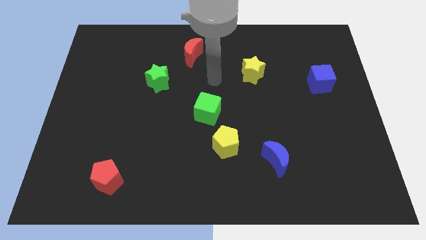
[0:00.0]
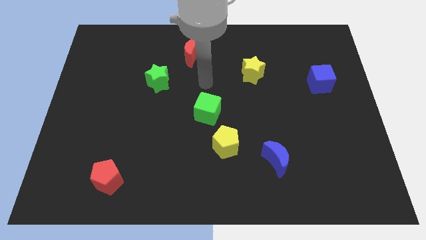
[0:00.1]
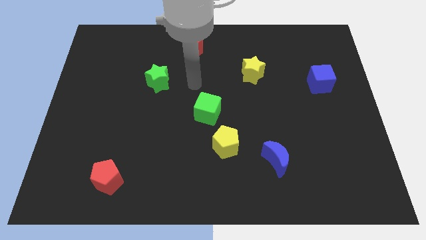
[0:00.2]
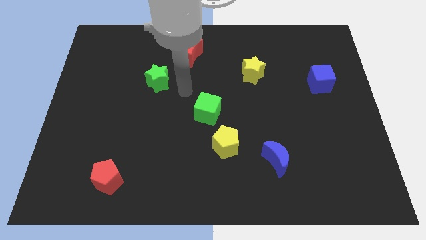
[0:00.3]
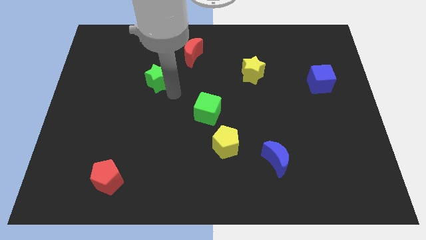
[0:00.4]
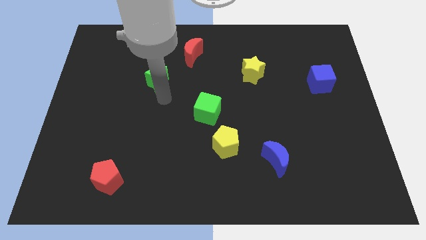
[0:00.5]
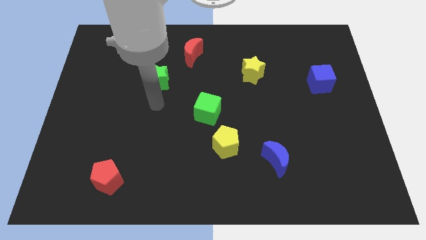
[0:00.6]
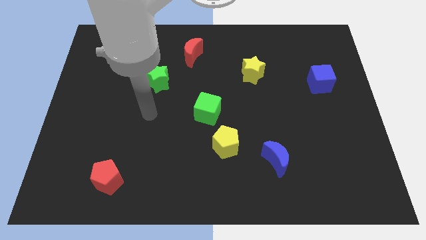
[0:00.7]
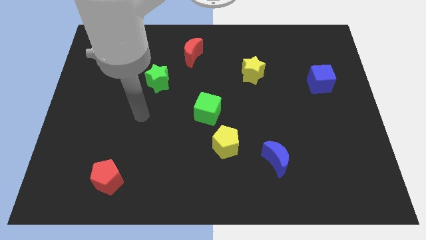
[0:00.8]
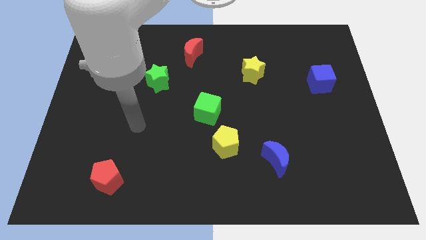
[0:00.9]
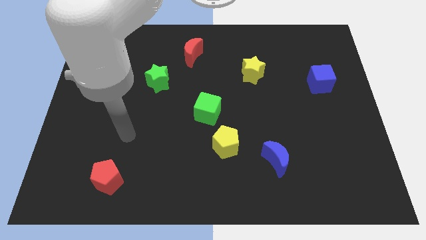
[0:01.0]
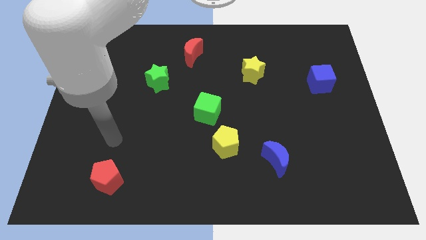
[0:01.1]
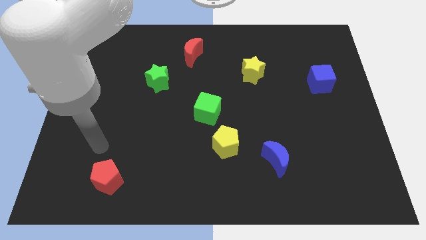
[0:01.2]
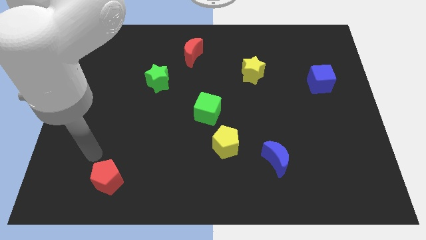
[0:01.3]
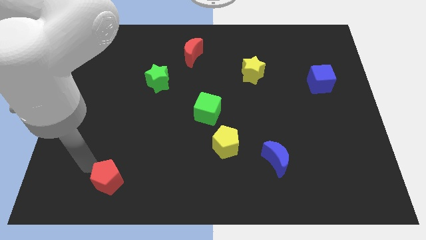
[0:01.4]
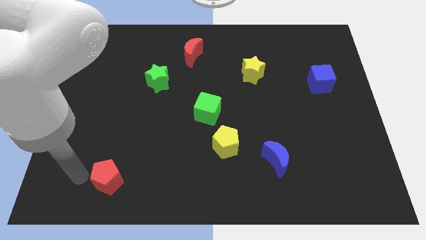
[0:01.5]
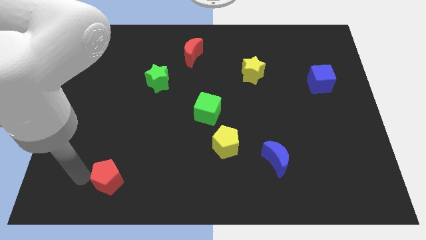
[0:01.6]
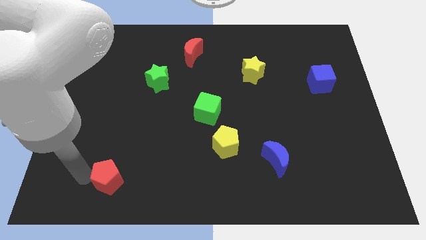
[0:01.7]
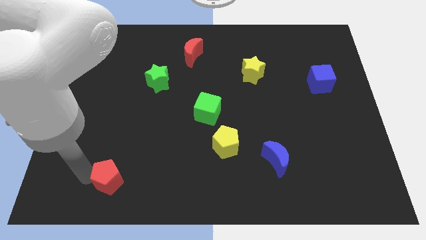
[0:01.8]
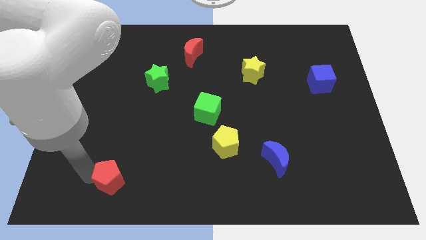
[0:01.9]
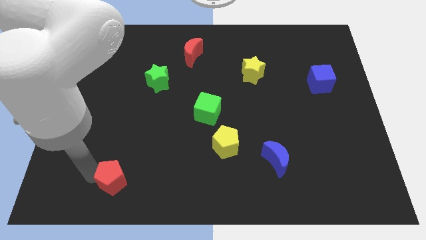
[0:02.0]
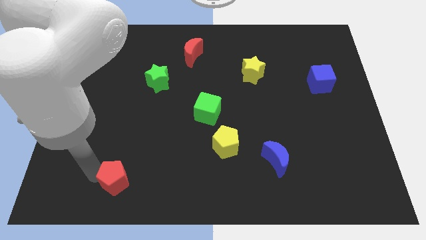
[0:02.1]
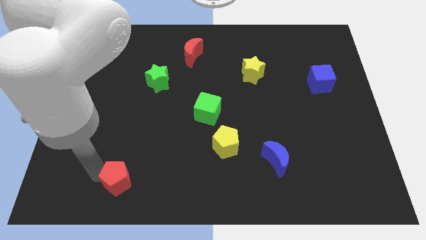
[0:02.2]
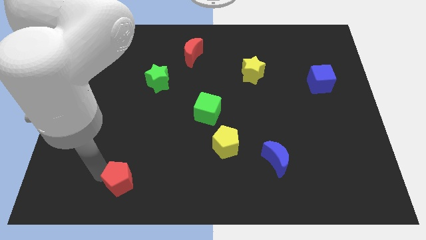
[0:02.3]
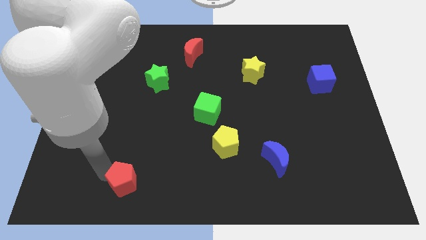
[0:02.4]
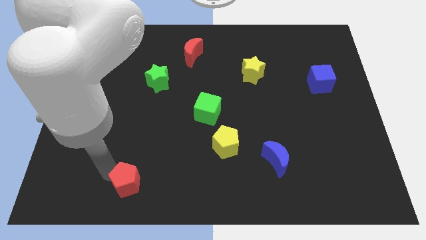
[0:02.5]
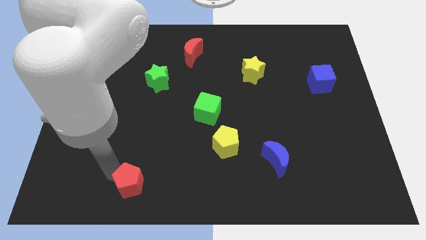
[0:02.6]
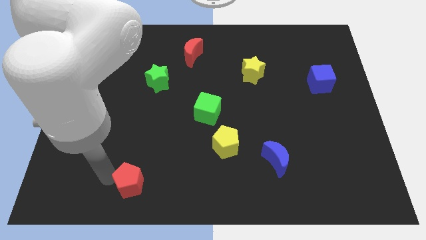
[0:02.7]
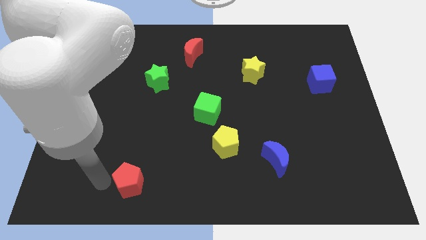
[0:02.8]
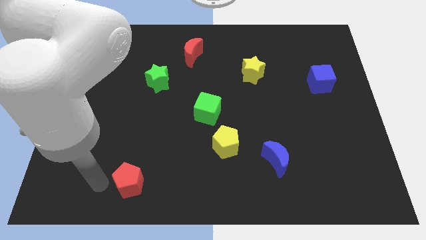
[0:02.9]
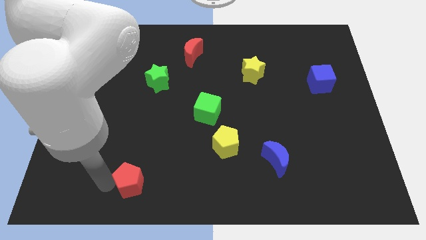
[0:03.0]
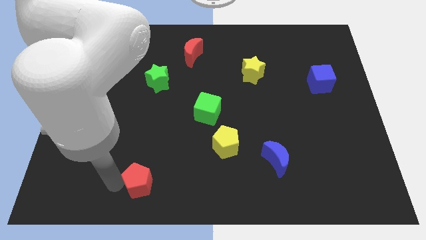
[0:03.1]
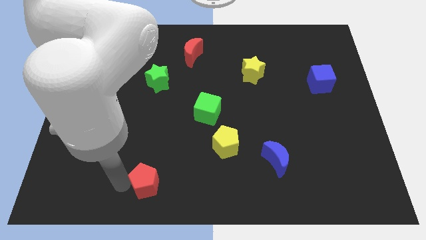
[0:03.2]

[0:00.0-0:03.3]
slide the red pentagon a bit right

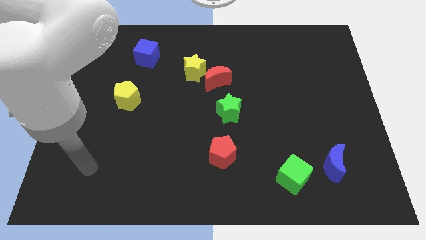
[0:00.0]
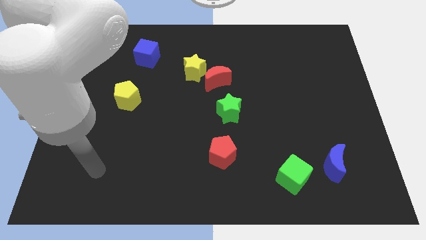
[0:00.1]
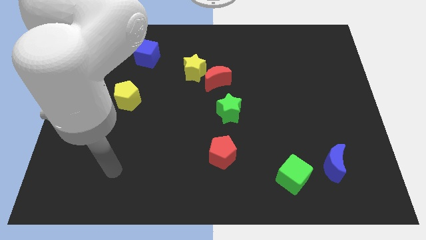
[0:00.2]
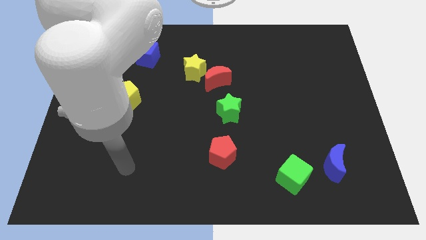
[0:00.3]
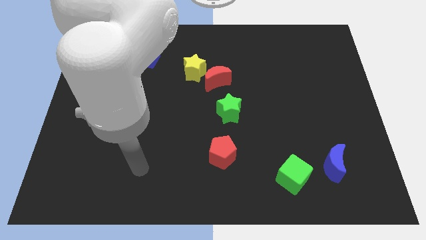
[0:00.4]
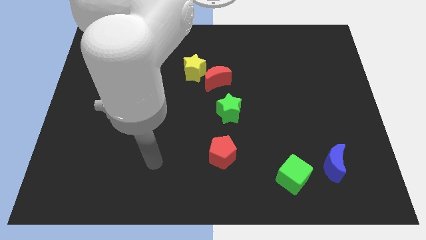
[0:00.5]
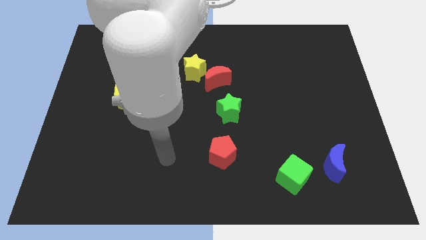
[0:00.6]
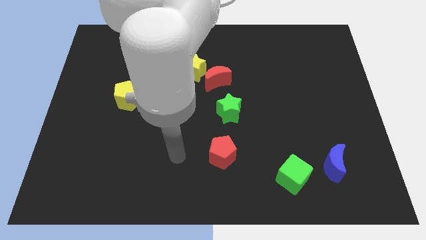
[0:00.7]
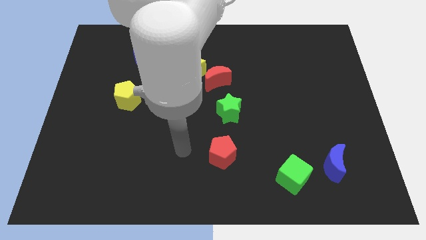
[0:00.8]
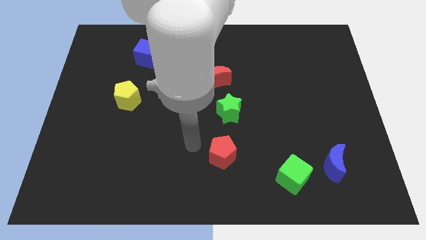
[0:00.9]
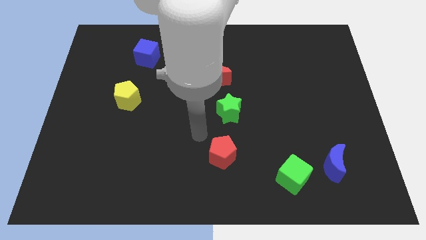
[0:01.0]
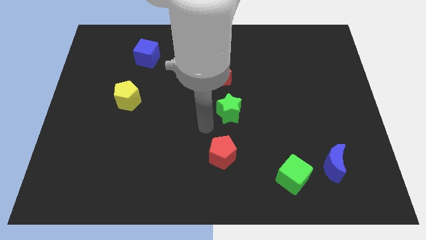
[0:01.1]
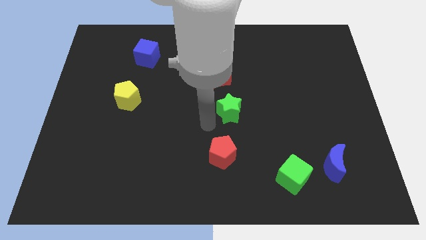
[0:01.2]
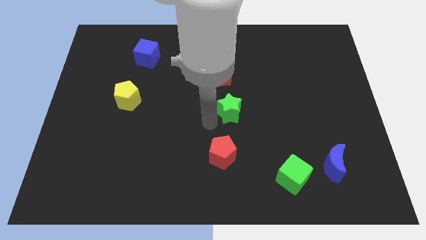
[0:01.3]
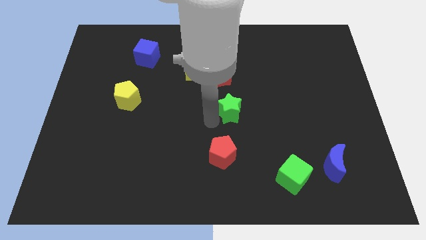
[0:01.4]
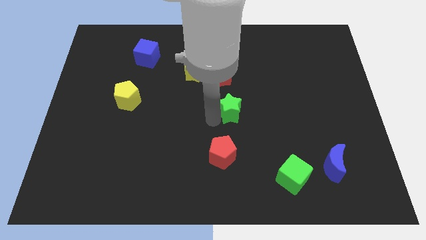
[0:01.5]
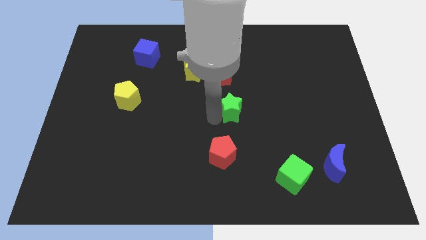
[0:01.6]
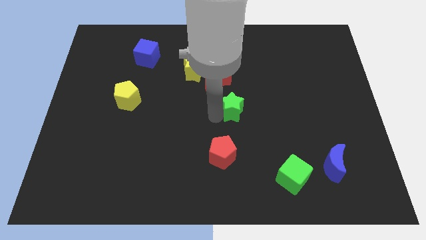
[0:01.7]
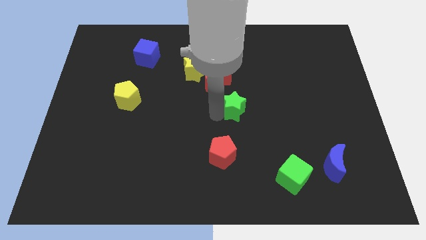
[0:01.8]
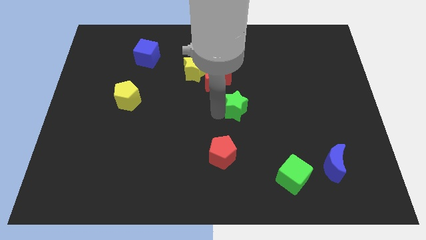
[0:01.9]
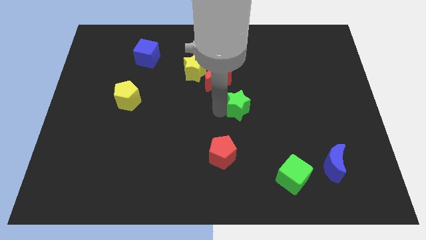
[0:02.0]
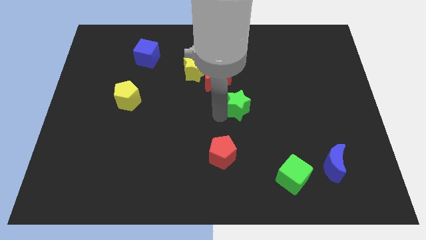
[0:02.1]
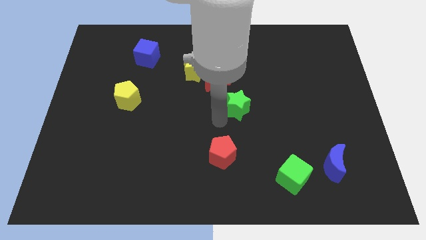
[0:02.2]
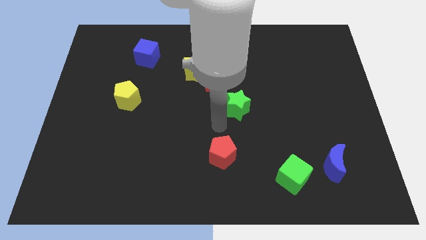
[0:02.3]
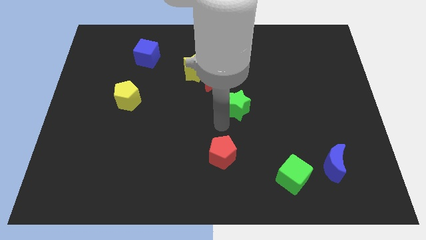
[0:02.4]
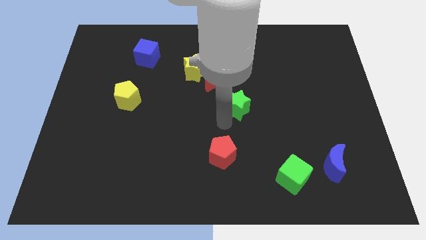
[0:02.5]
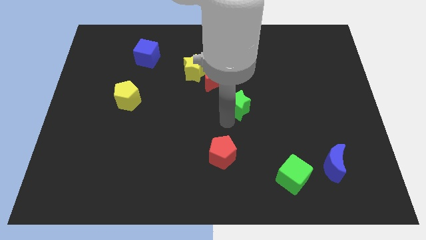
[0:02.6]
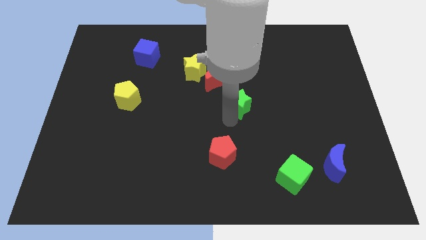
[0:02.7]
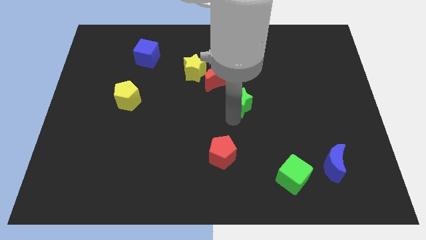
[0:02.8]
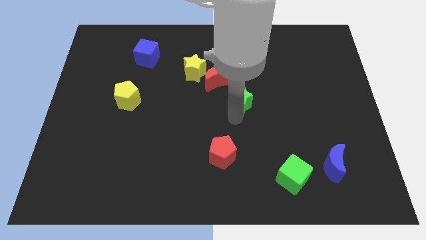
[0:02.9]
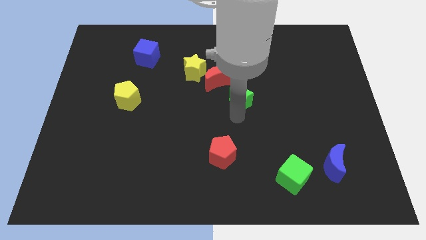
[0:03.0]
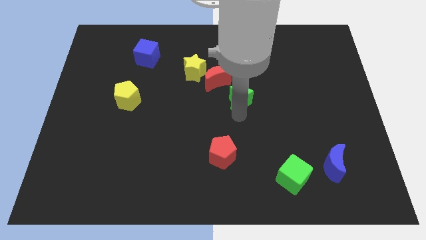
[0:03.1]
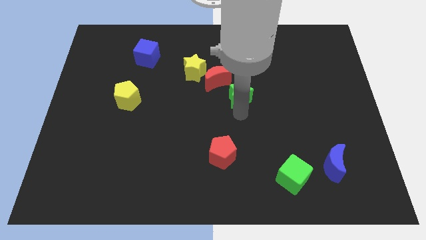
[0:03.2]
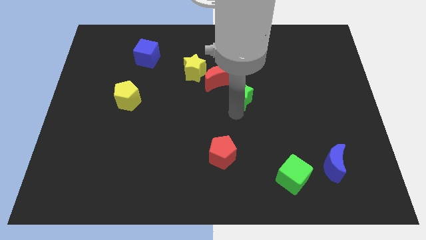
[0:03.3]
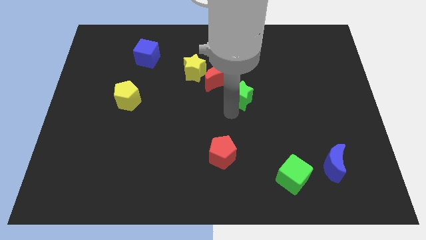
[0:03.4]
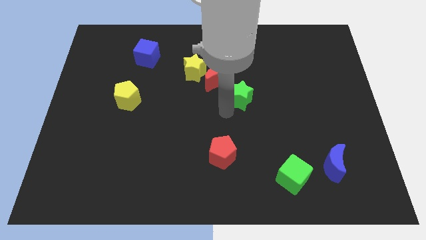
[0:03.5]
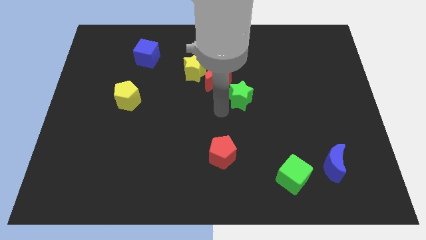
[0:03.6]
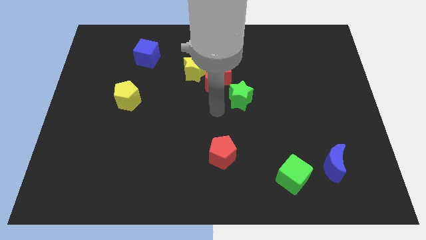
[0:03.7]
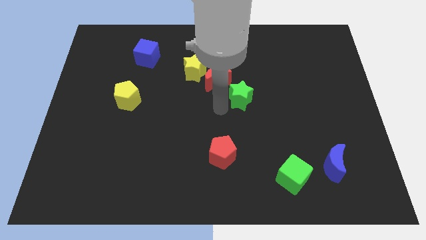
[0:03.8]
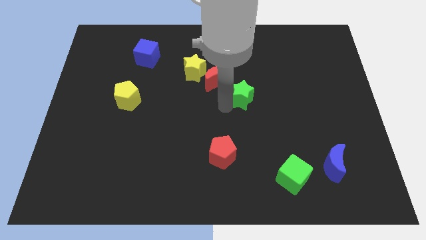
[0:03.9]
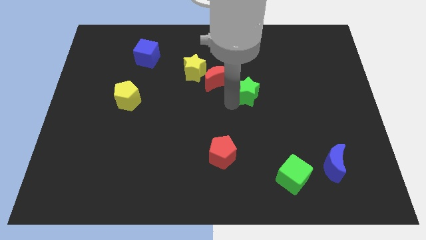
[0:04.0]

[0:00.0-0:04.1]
slightly push the green star up and to the right

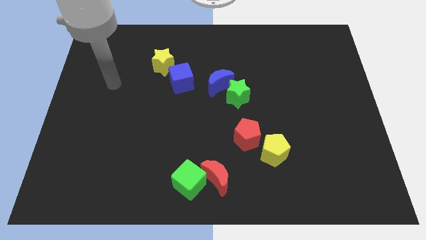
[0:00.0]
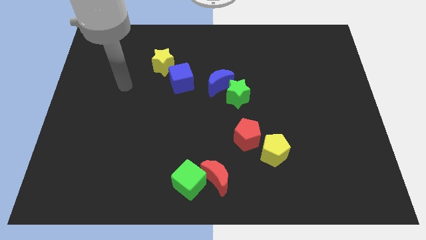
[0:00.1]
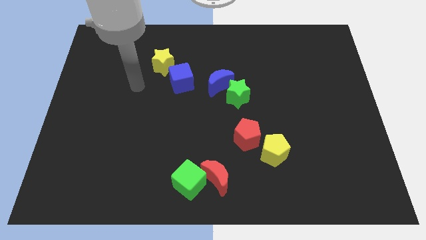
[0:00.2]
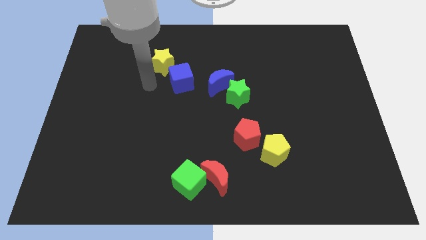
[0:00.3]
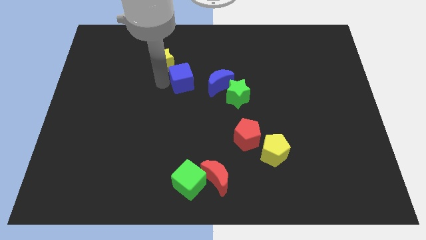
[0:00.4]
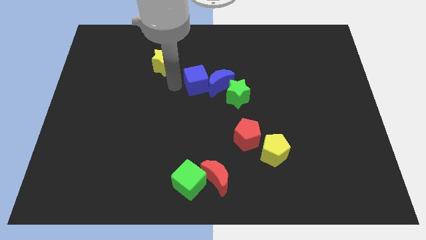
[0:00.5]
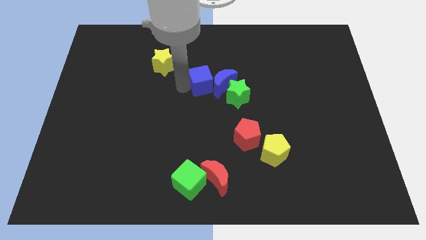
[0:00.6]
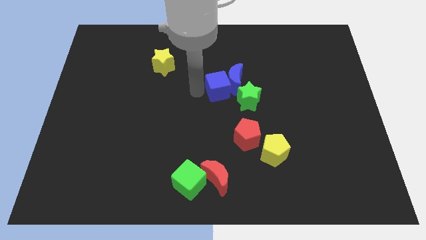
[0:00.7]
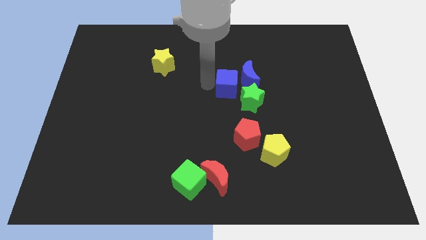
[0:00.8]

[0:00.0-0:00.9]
push the blue moon a little bit right
